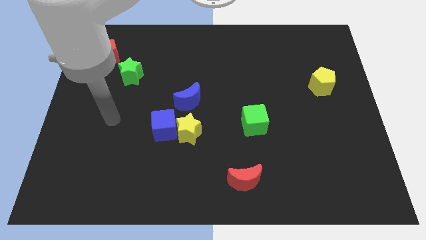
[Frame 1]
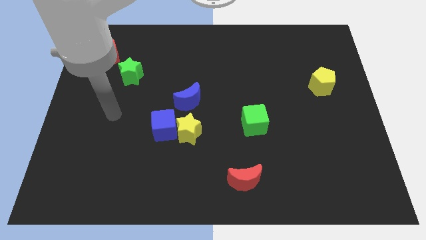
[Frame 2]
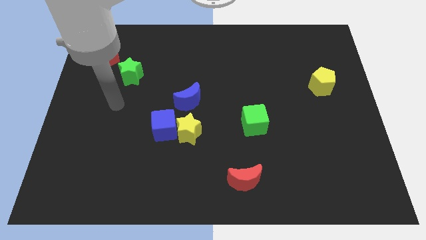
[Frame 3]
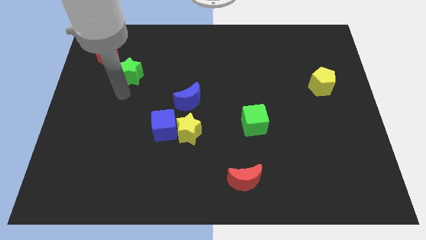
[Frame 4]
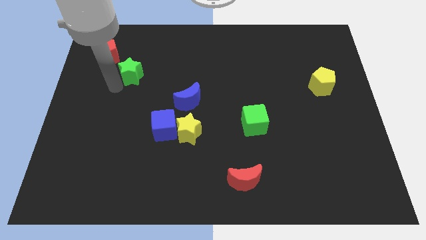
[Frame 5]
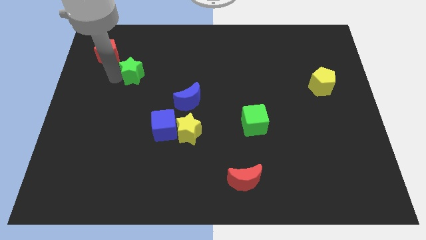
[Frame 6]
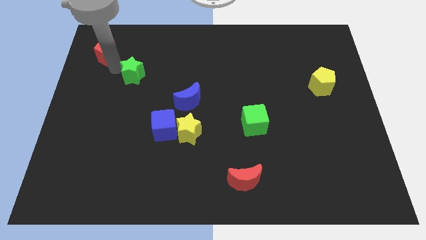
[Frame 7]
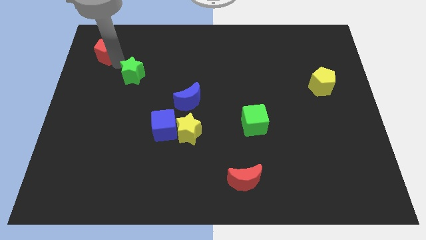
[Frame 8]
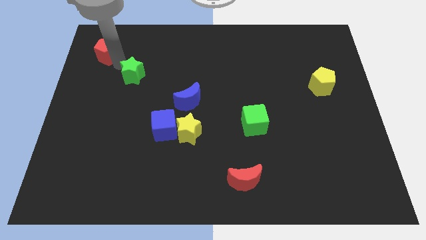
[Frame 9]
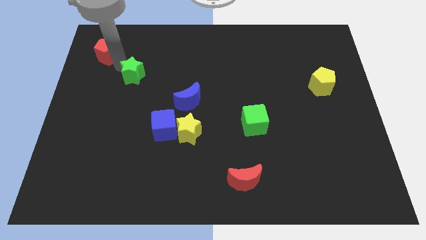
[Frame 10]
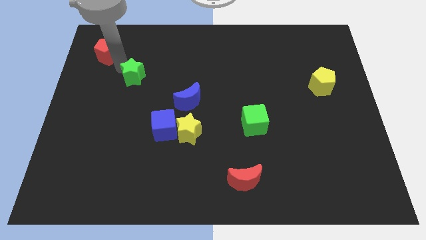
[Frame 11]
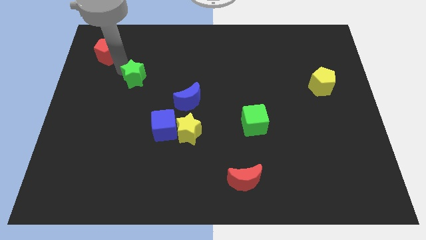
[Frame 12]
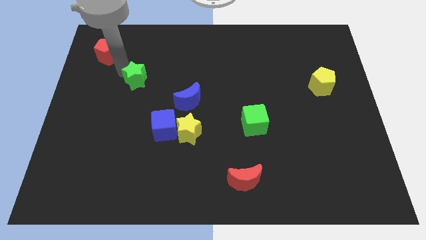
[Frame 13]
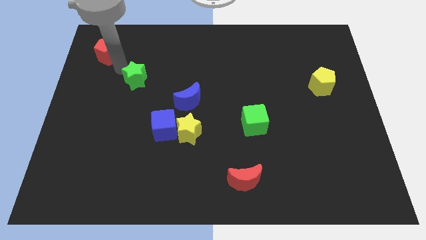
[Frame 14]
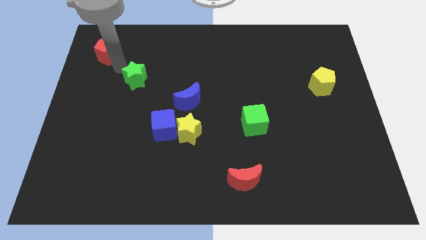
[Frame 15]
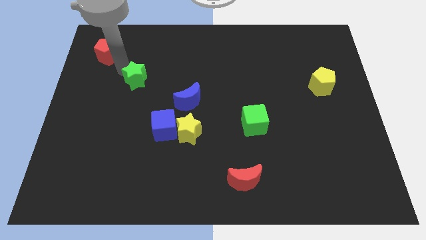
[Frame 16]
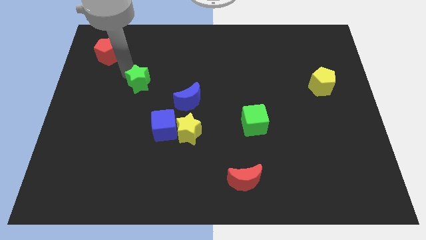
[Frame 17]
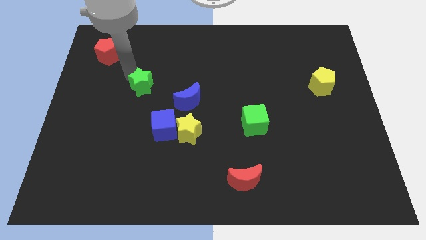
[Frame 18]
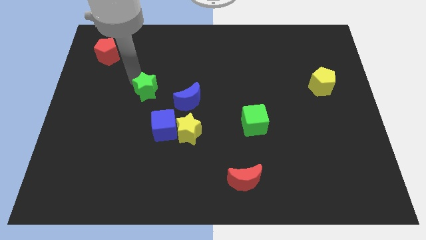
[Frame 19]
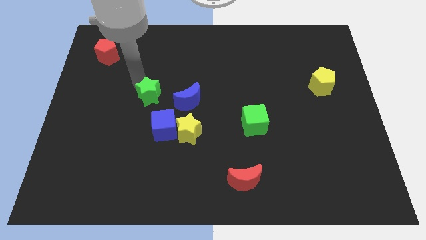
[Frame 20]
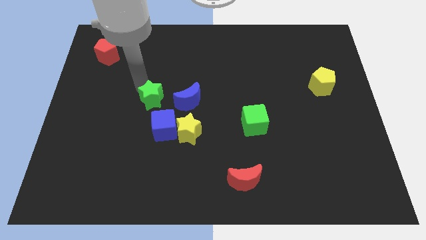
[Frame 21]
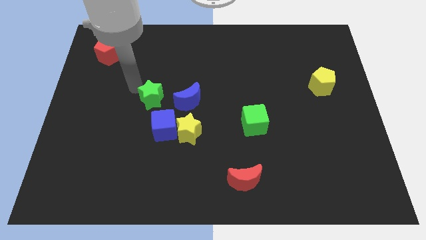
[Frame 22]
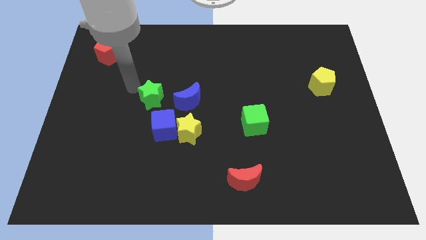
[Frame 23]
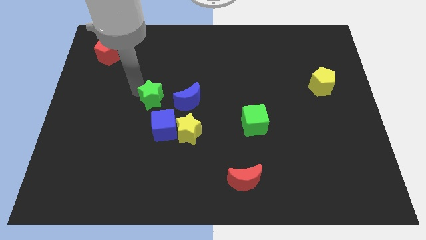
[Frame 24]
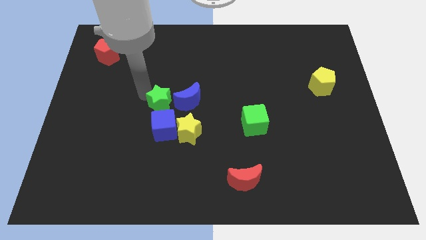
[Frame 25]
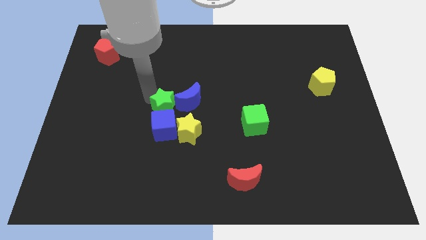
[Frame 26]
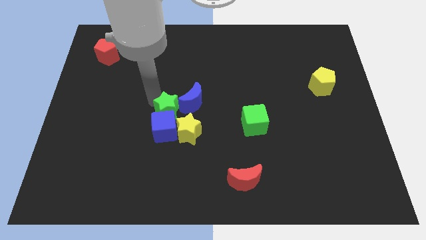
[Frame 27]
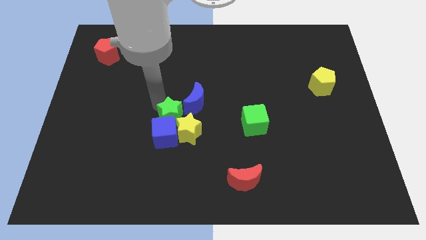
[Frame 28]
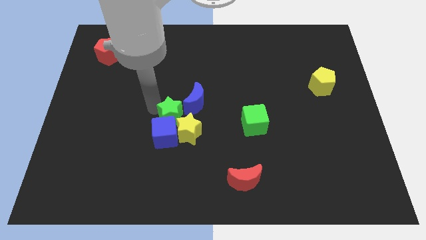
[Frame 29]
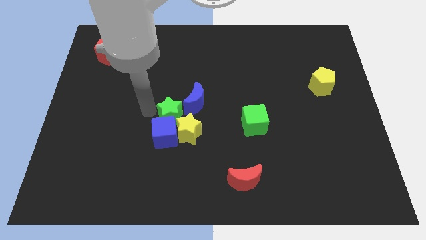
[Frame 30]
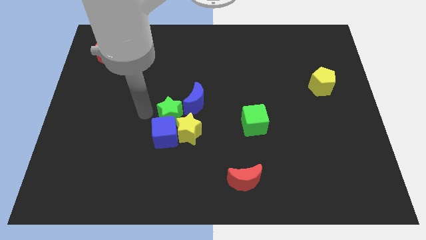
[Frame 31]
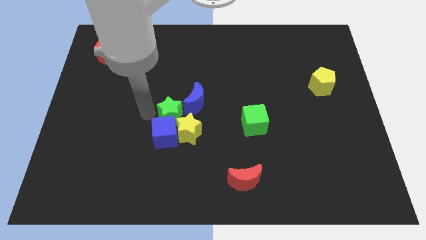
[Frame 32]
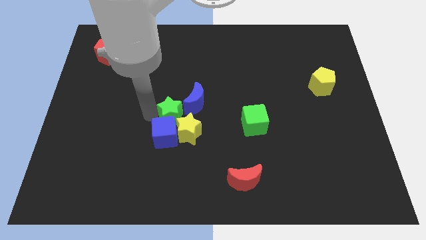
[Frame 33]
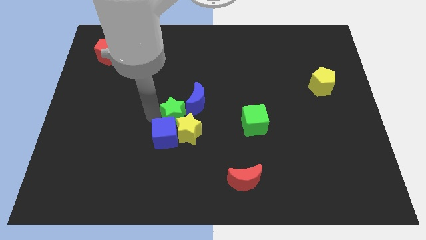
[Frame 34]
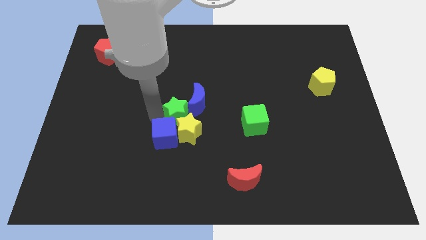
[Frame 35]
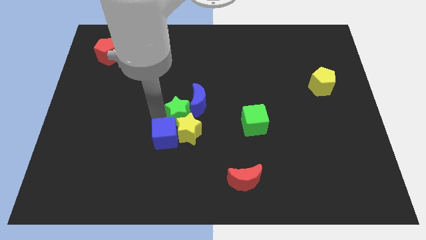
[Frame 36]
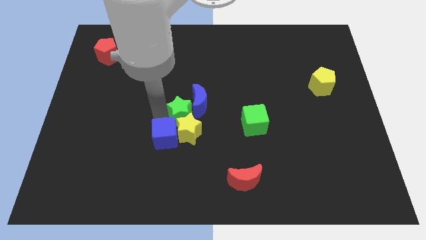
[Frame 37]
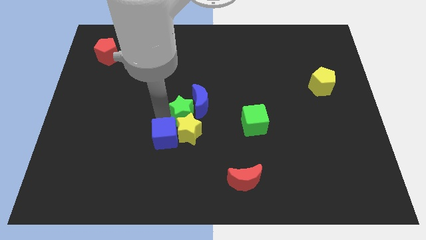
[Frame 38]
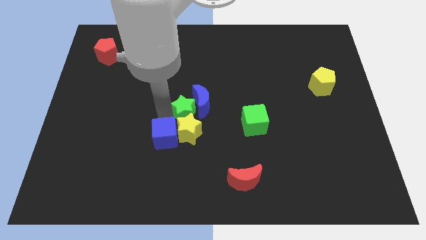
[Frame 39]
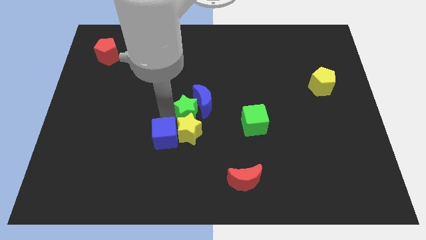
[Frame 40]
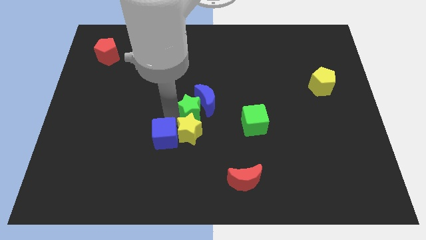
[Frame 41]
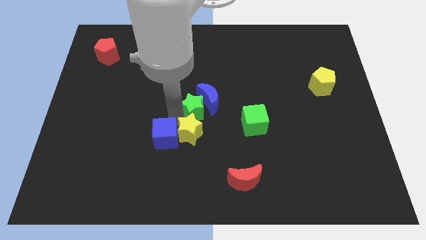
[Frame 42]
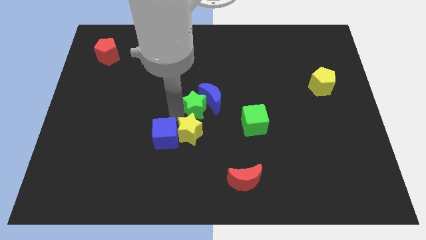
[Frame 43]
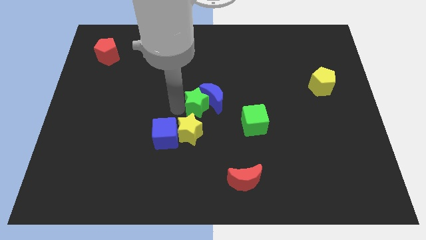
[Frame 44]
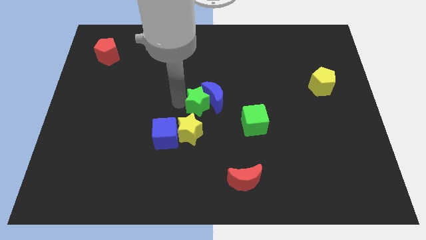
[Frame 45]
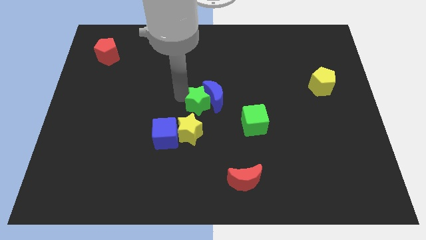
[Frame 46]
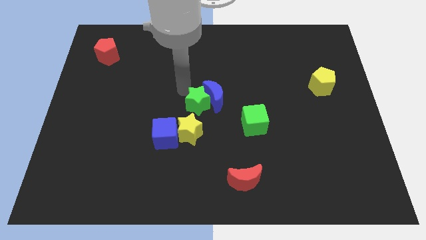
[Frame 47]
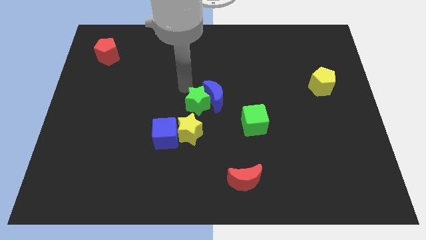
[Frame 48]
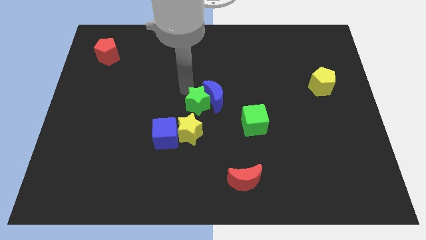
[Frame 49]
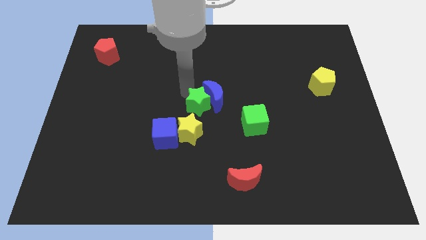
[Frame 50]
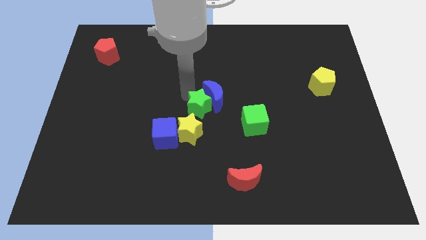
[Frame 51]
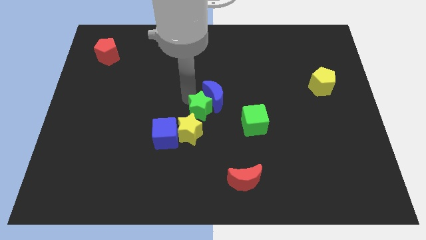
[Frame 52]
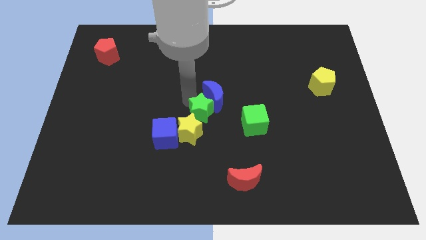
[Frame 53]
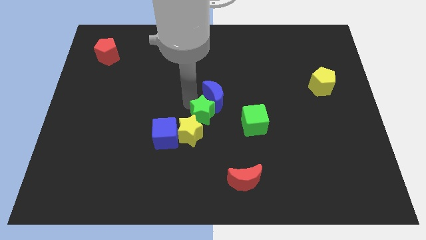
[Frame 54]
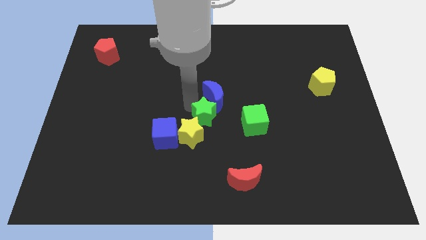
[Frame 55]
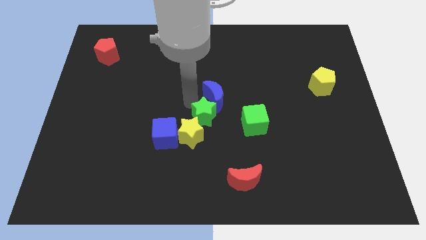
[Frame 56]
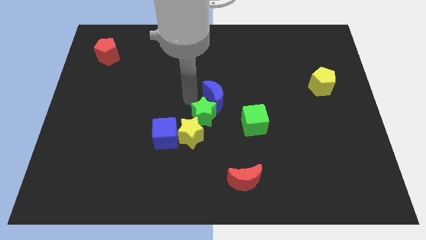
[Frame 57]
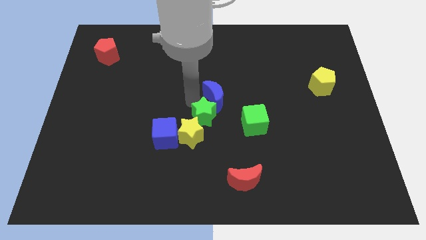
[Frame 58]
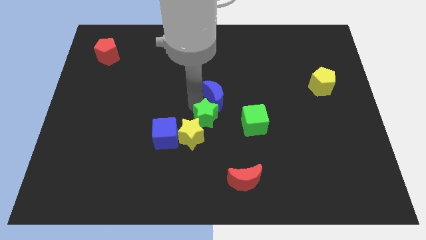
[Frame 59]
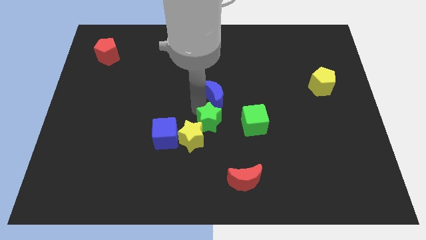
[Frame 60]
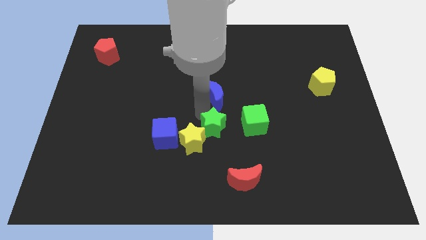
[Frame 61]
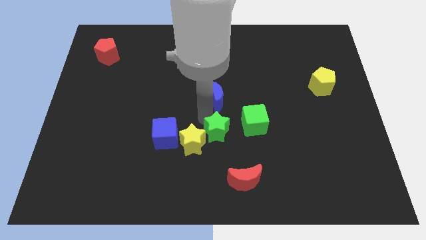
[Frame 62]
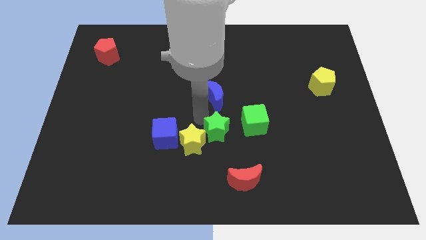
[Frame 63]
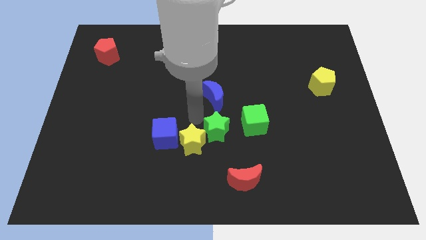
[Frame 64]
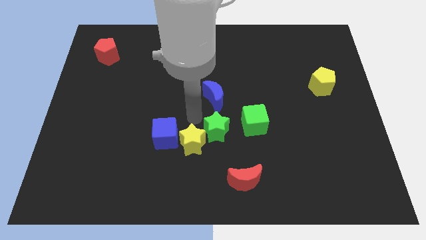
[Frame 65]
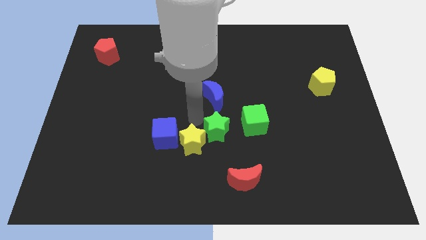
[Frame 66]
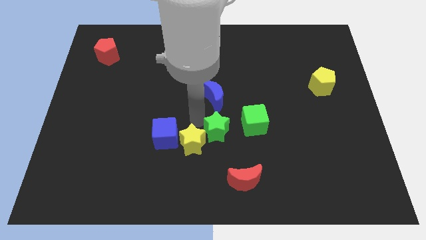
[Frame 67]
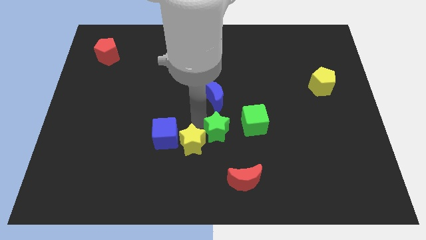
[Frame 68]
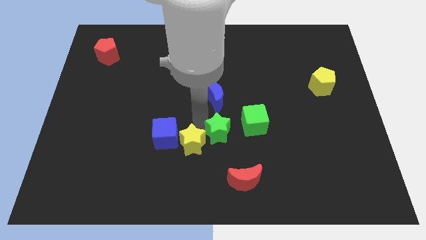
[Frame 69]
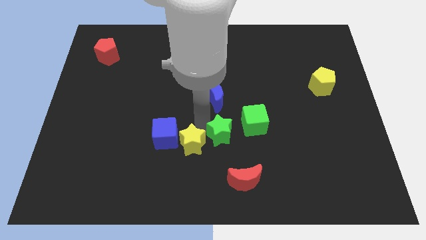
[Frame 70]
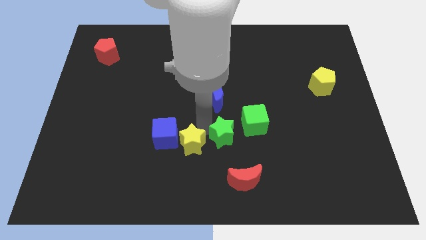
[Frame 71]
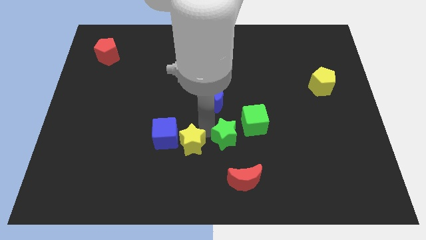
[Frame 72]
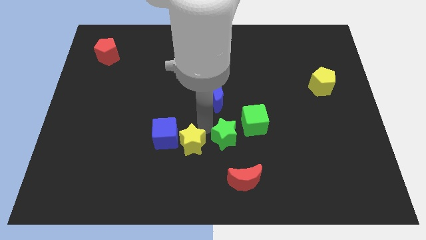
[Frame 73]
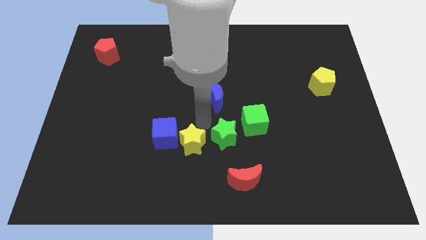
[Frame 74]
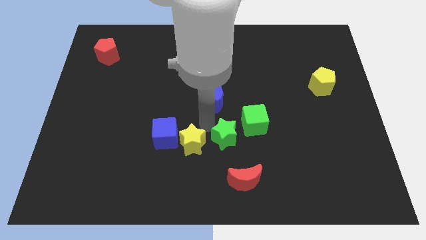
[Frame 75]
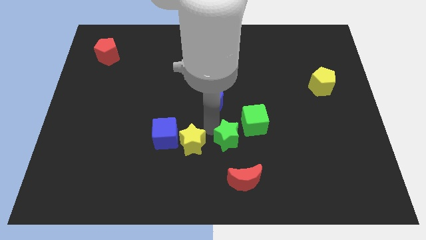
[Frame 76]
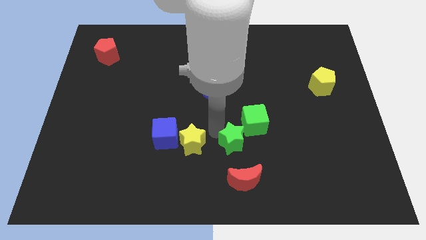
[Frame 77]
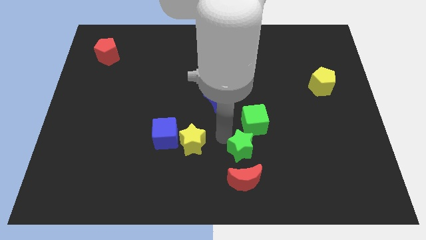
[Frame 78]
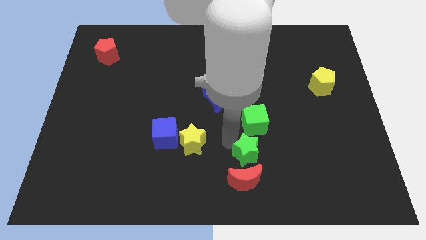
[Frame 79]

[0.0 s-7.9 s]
move the green star to the top right side of the red moon
